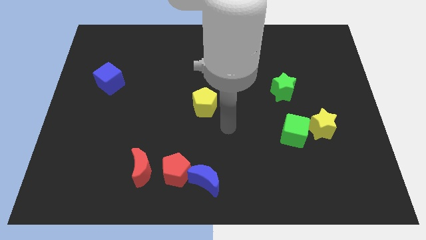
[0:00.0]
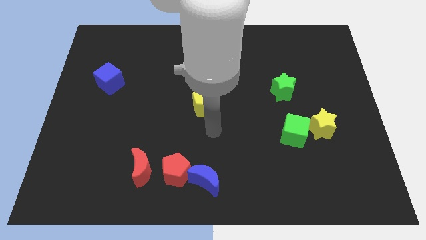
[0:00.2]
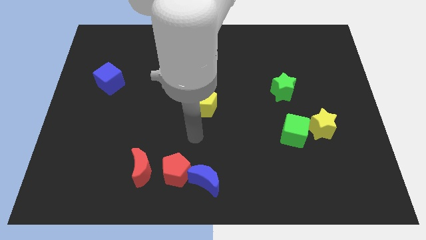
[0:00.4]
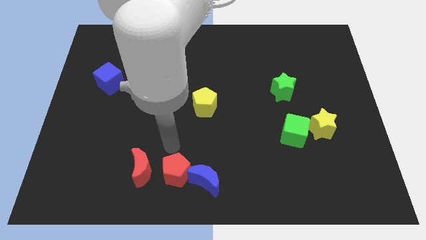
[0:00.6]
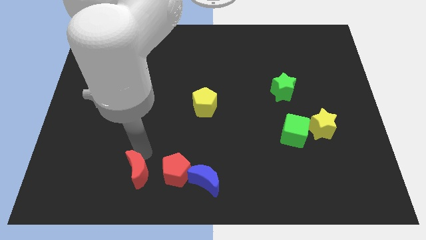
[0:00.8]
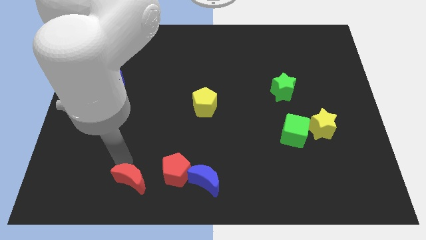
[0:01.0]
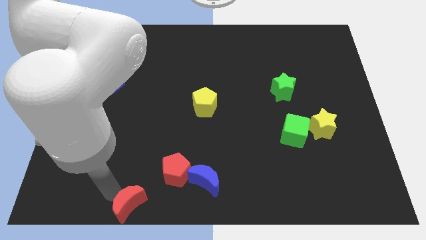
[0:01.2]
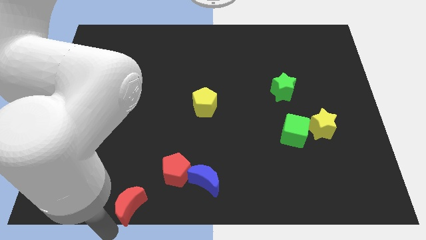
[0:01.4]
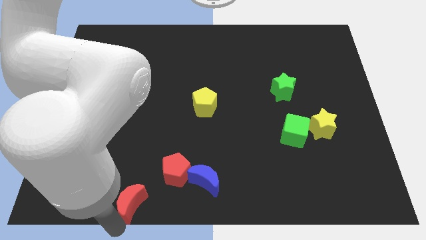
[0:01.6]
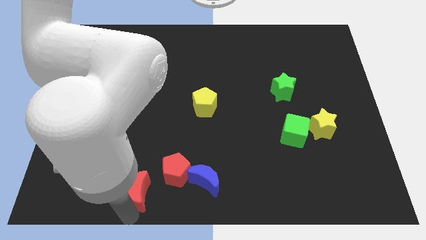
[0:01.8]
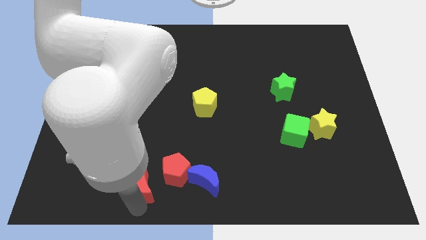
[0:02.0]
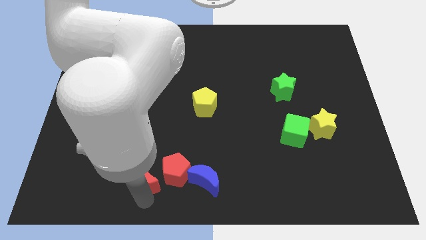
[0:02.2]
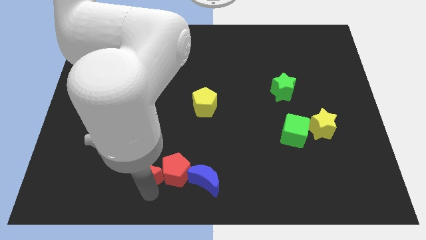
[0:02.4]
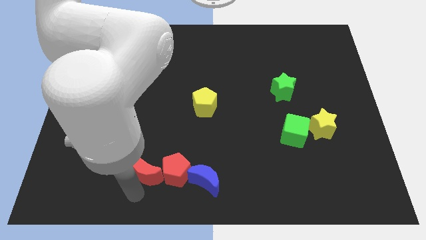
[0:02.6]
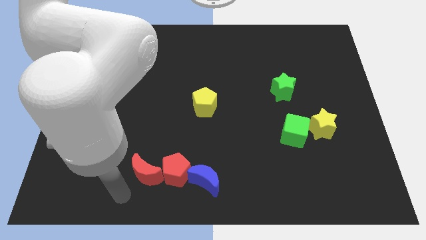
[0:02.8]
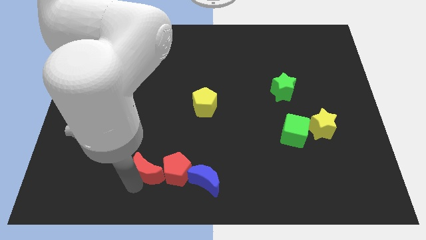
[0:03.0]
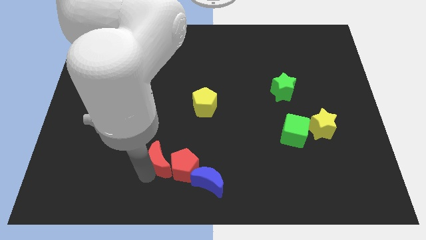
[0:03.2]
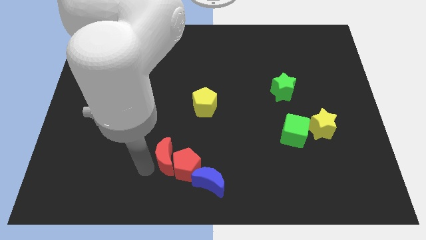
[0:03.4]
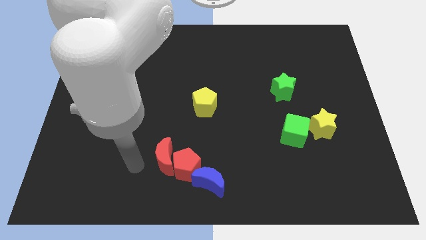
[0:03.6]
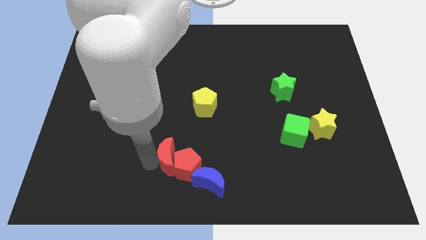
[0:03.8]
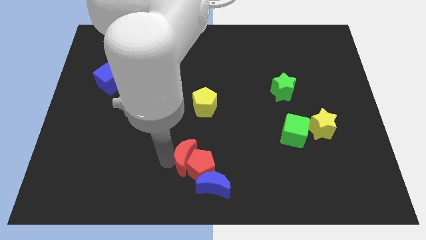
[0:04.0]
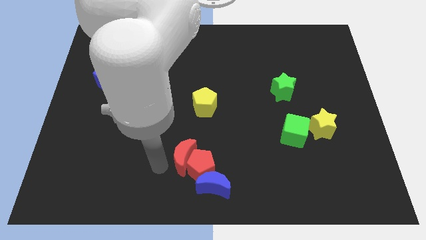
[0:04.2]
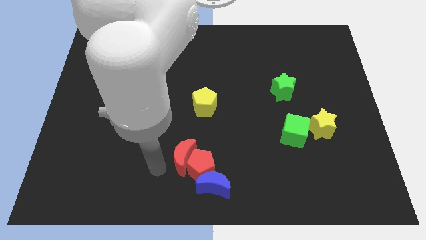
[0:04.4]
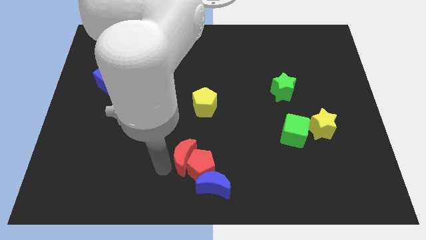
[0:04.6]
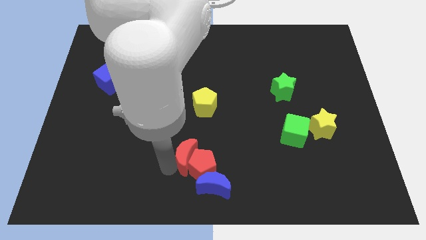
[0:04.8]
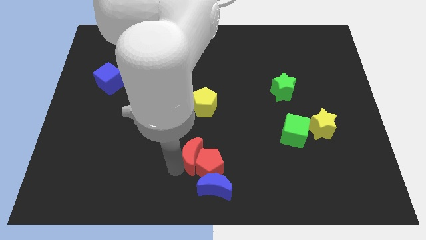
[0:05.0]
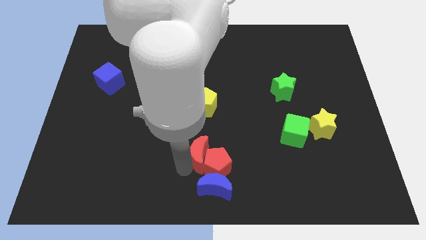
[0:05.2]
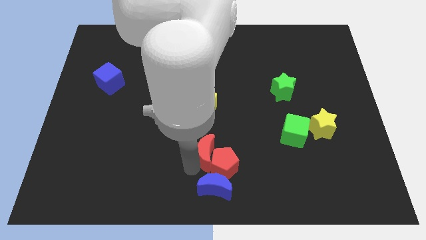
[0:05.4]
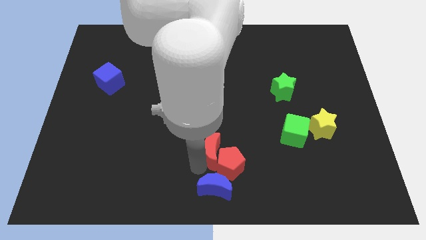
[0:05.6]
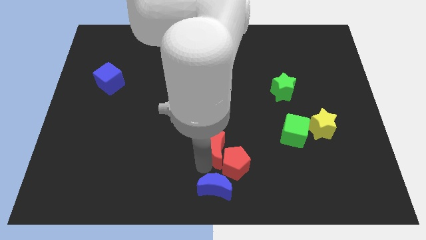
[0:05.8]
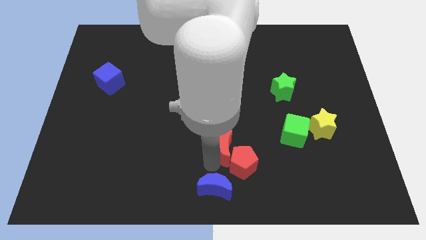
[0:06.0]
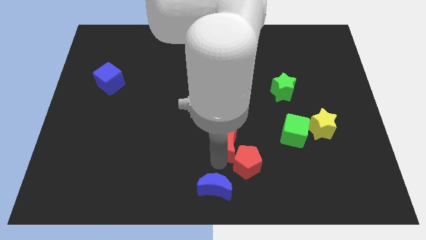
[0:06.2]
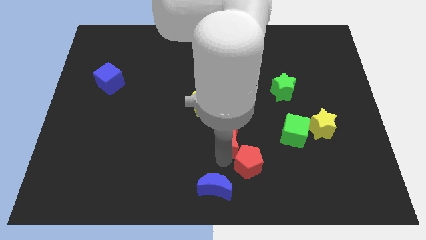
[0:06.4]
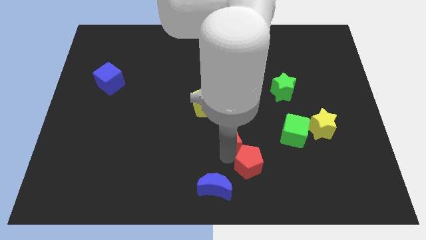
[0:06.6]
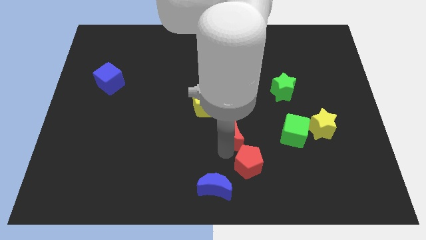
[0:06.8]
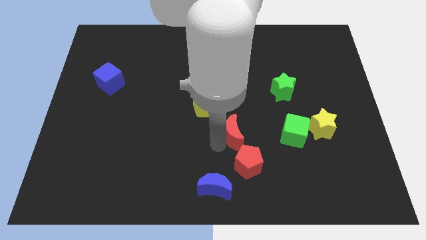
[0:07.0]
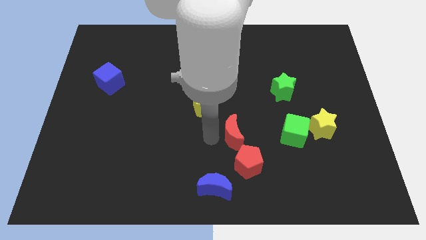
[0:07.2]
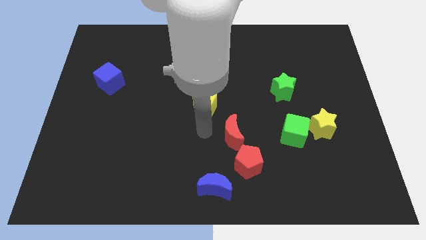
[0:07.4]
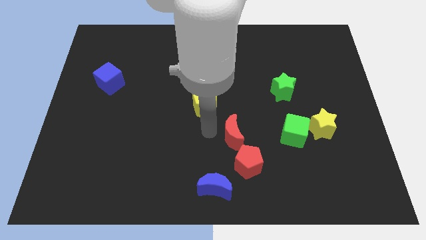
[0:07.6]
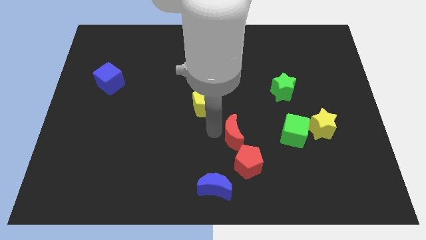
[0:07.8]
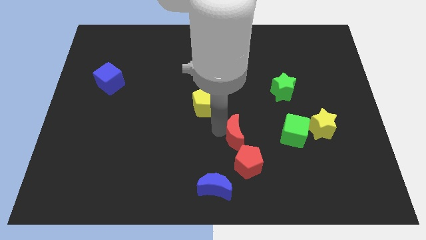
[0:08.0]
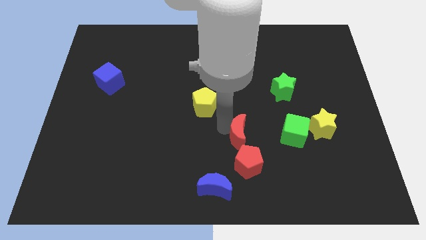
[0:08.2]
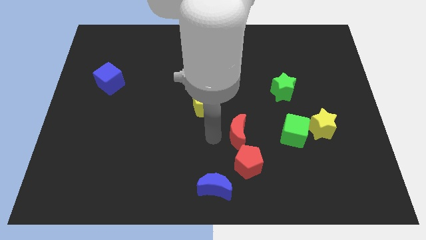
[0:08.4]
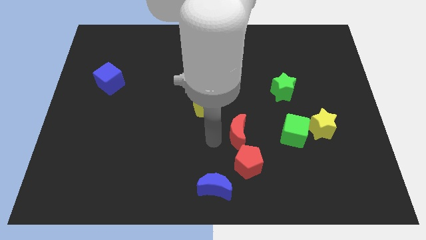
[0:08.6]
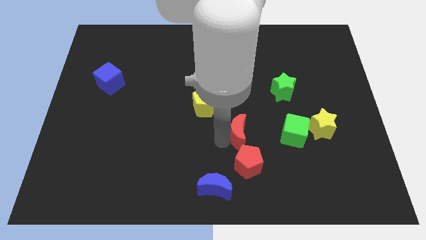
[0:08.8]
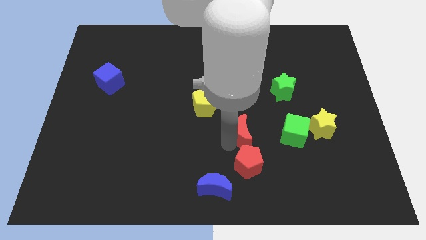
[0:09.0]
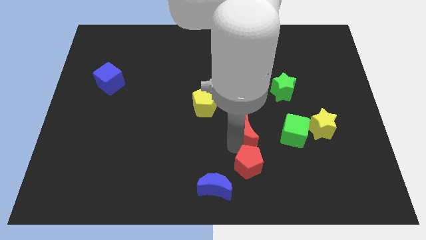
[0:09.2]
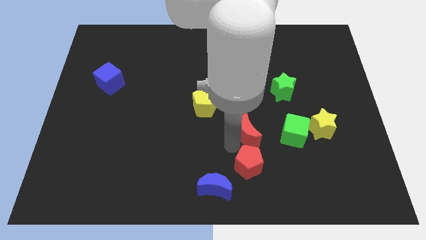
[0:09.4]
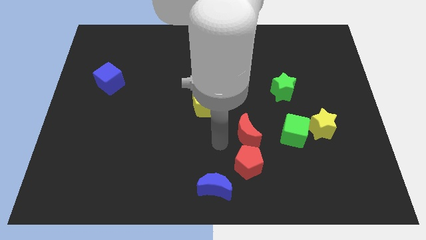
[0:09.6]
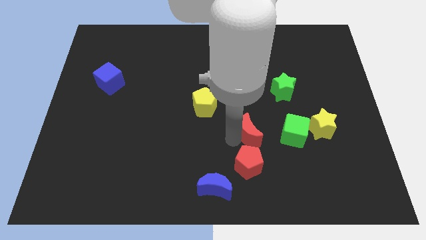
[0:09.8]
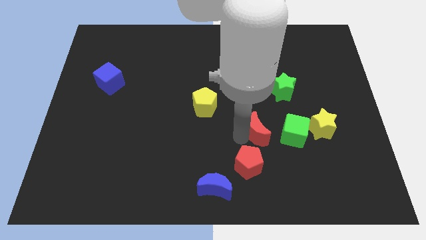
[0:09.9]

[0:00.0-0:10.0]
slide the red moon to the left of the yellow star

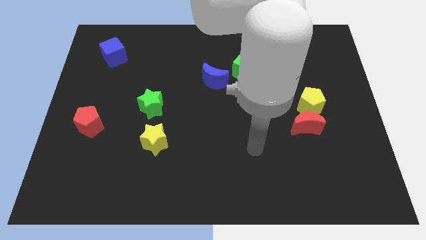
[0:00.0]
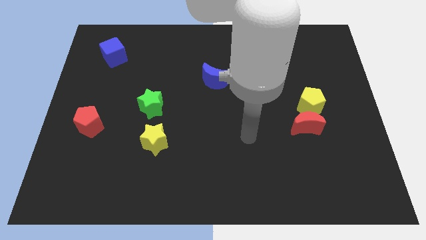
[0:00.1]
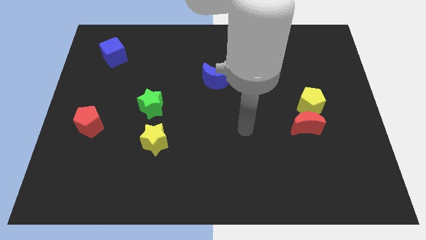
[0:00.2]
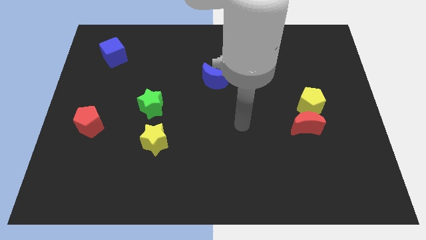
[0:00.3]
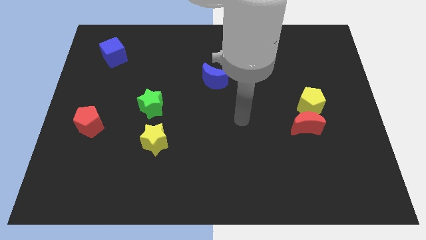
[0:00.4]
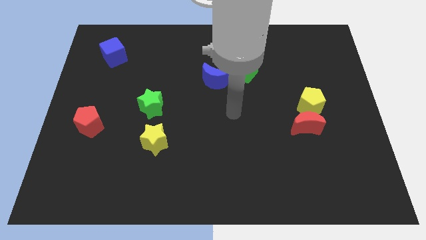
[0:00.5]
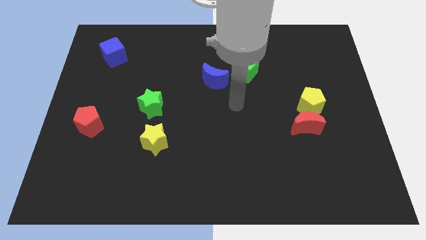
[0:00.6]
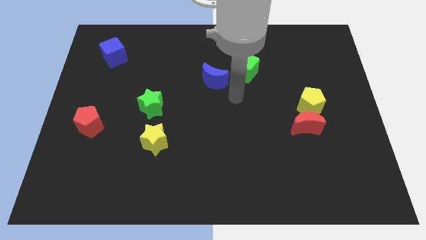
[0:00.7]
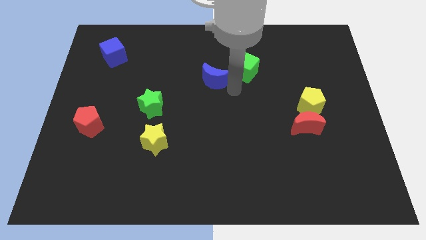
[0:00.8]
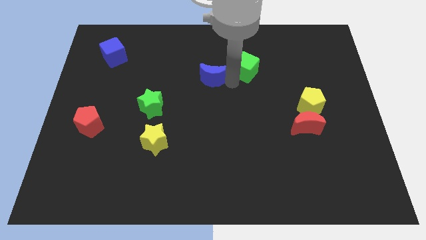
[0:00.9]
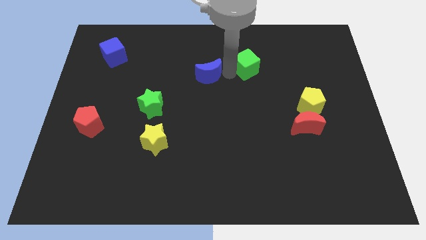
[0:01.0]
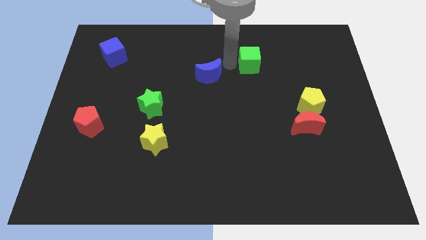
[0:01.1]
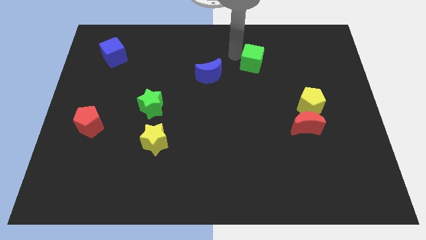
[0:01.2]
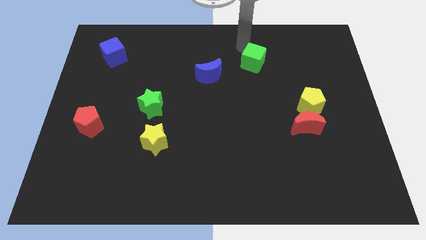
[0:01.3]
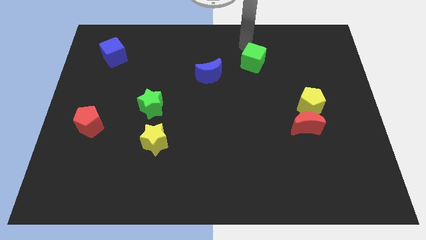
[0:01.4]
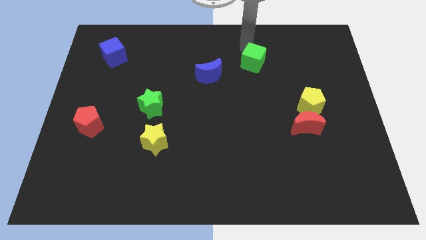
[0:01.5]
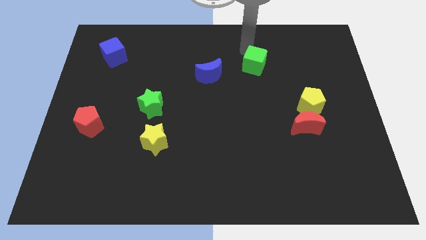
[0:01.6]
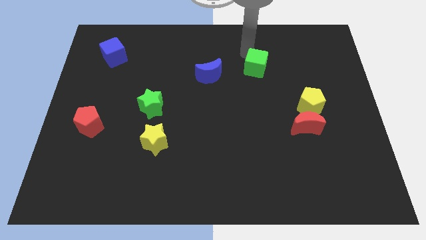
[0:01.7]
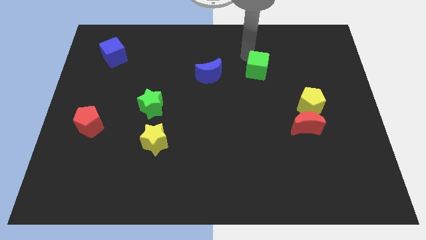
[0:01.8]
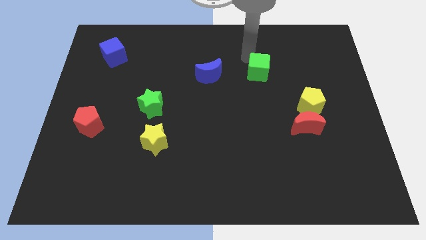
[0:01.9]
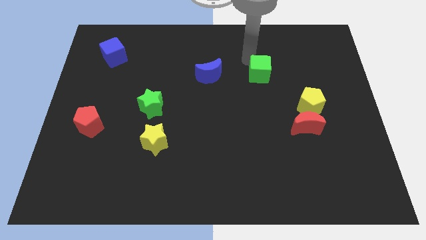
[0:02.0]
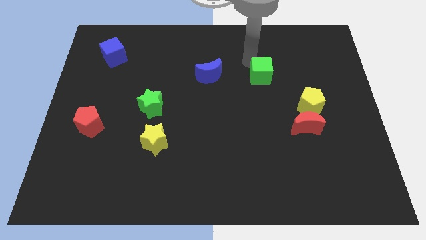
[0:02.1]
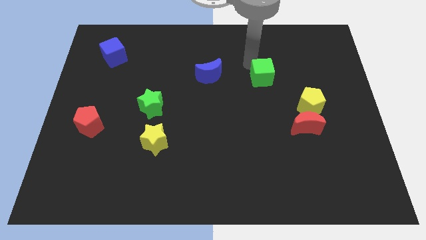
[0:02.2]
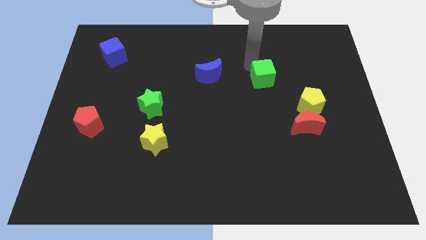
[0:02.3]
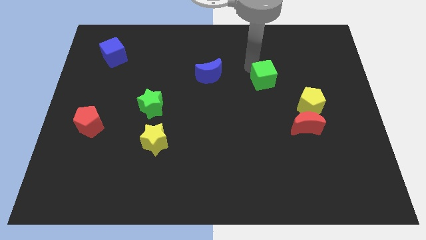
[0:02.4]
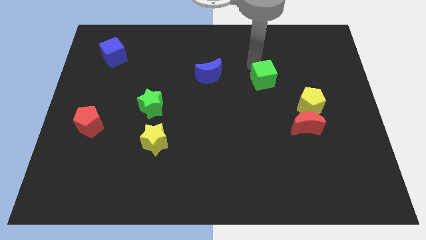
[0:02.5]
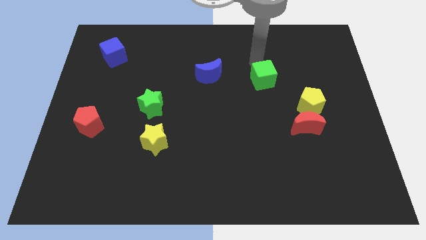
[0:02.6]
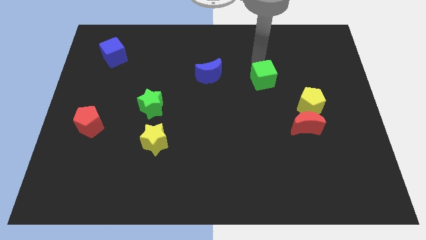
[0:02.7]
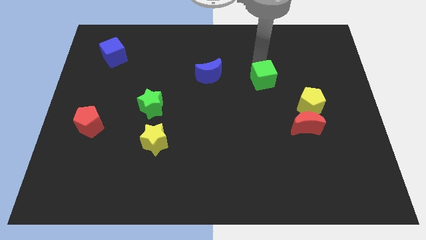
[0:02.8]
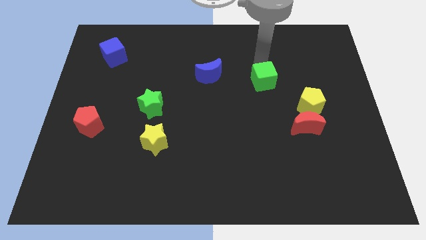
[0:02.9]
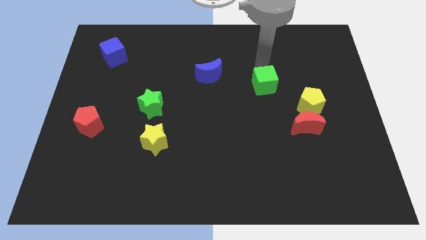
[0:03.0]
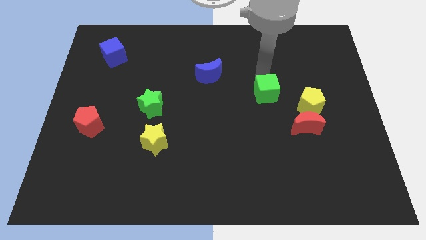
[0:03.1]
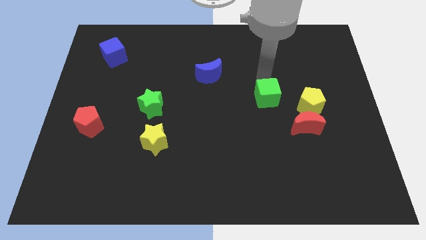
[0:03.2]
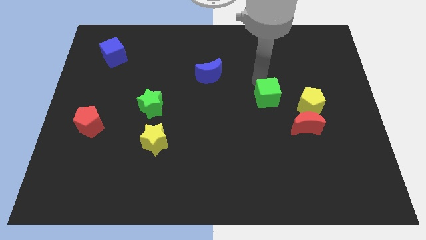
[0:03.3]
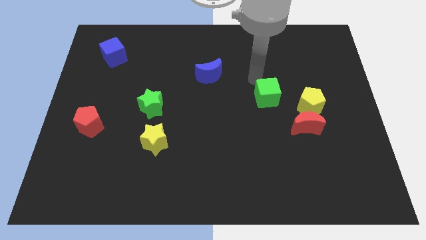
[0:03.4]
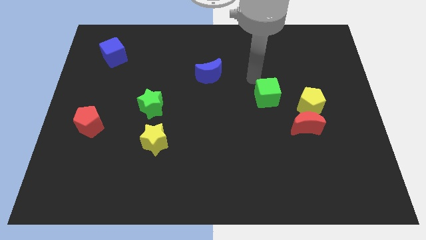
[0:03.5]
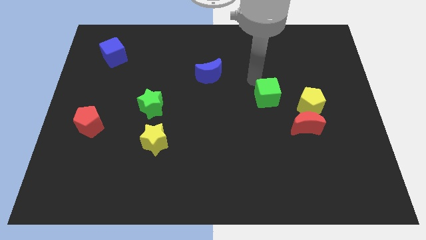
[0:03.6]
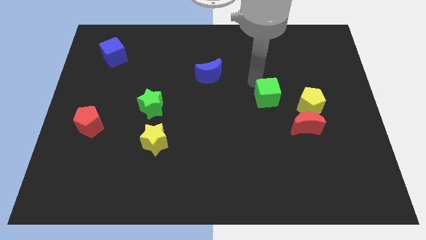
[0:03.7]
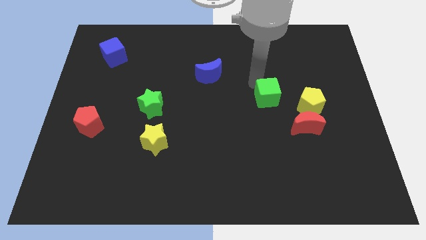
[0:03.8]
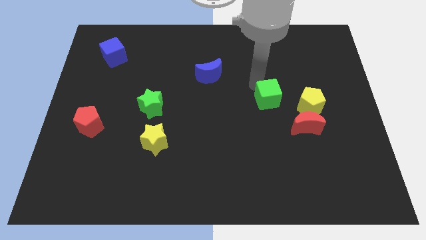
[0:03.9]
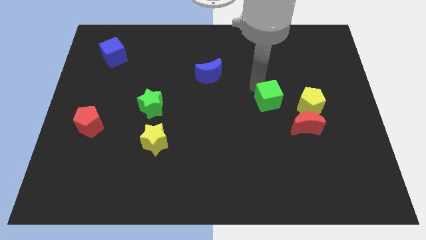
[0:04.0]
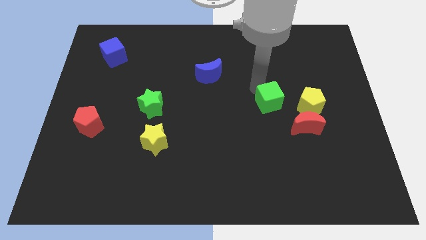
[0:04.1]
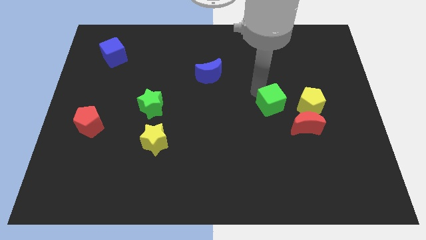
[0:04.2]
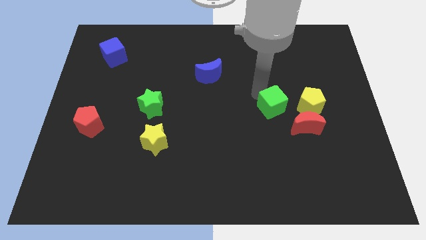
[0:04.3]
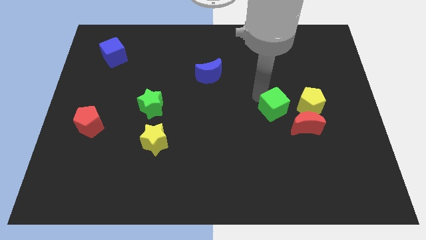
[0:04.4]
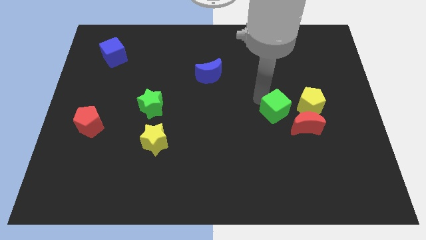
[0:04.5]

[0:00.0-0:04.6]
put the green cube to the bottom left of the yellow pentagon
